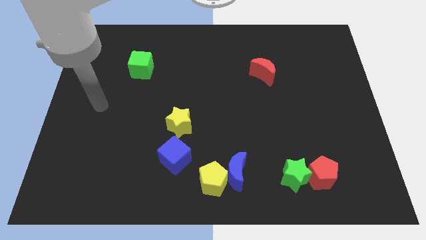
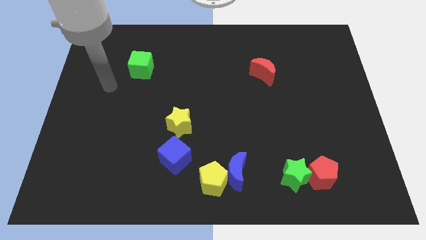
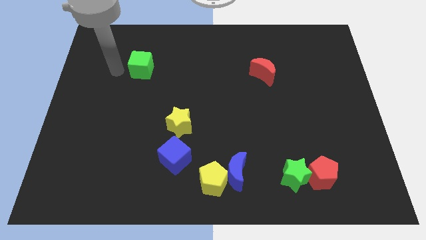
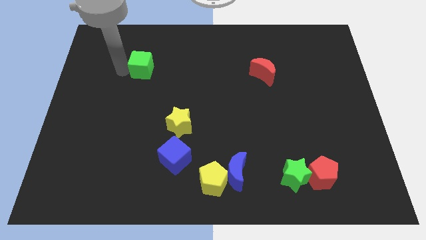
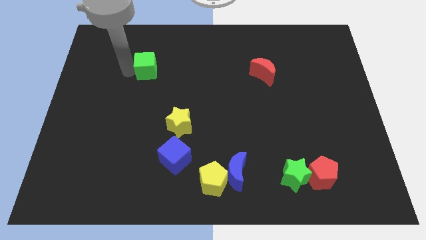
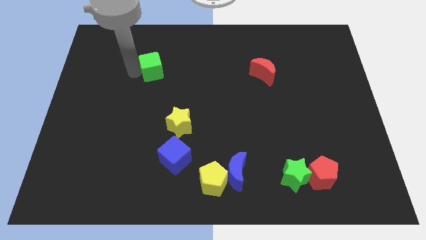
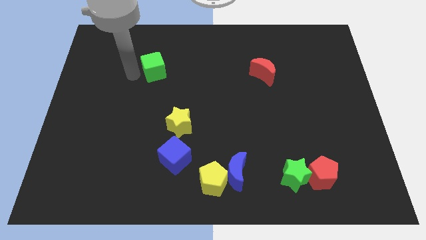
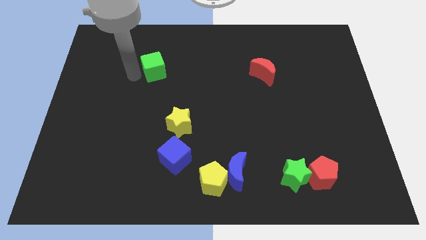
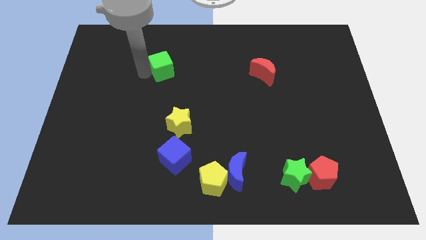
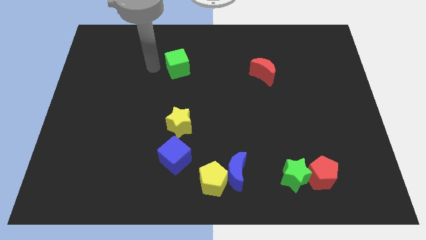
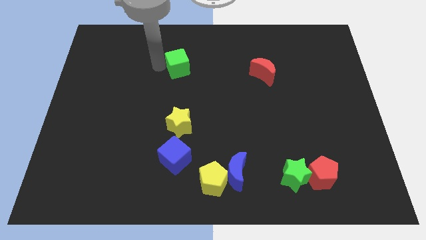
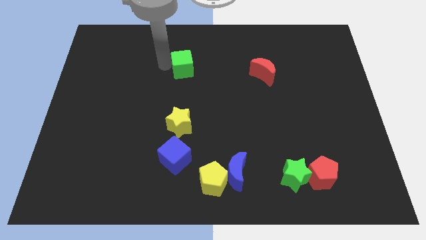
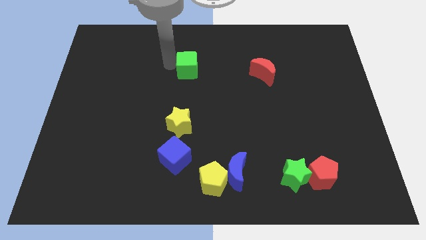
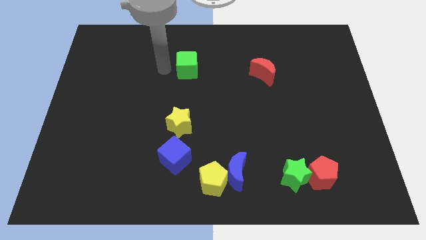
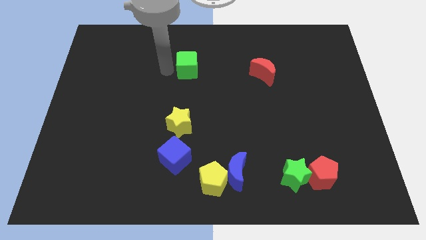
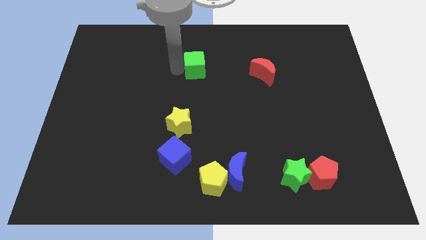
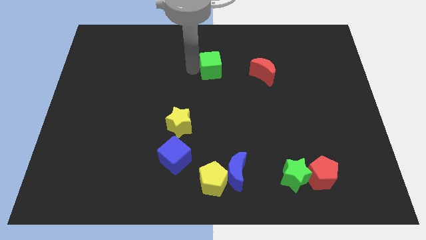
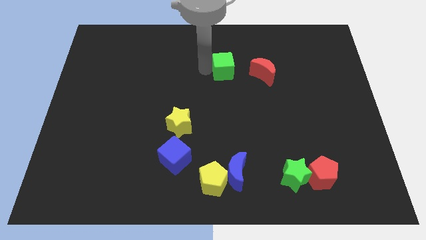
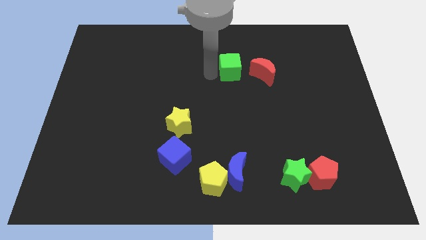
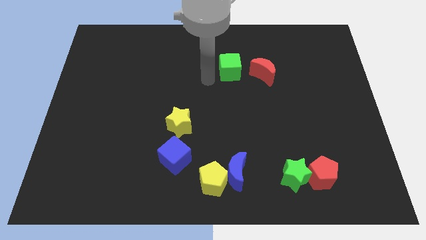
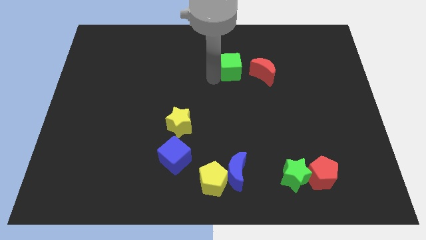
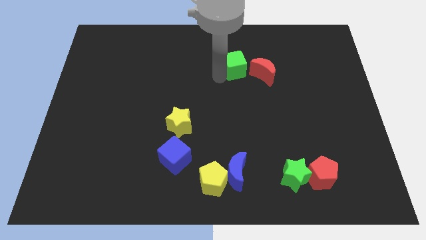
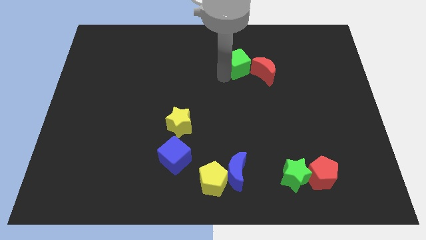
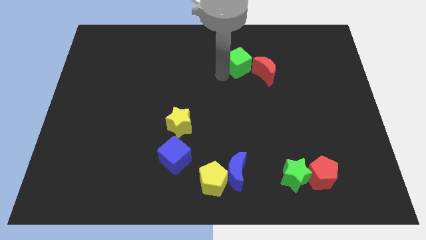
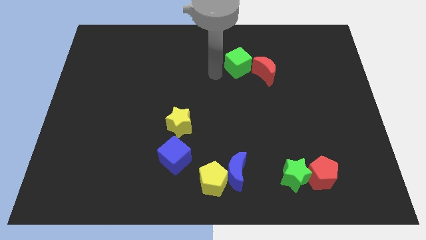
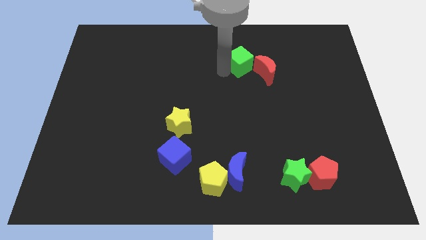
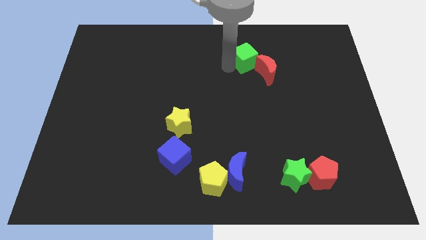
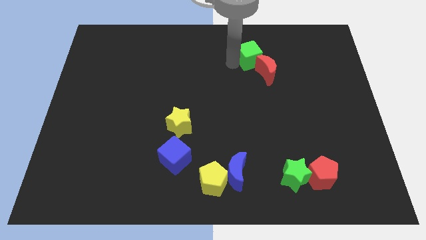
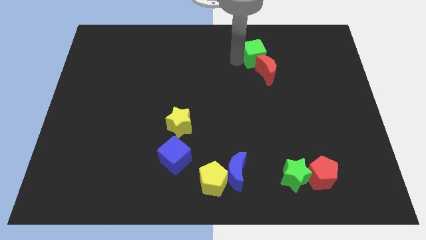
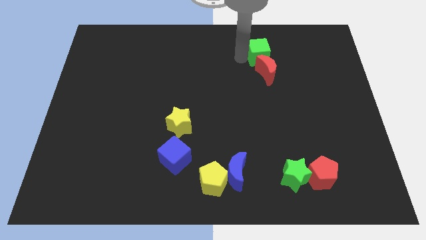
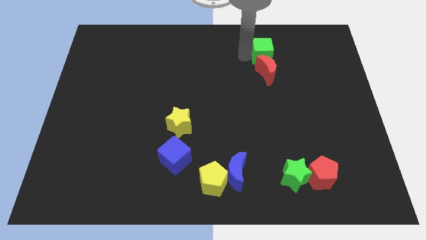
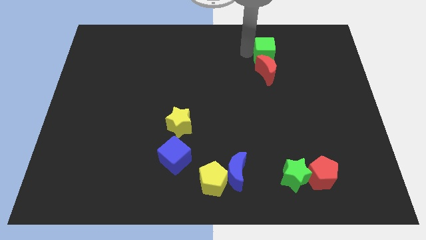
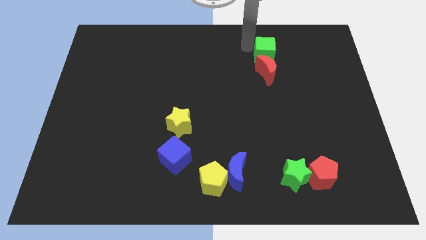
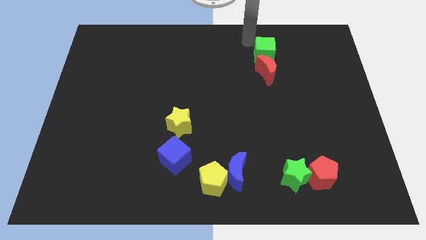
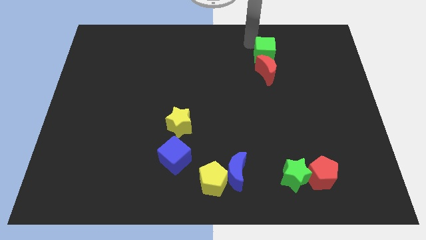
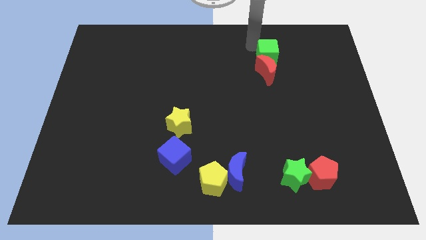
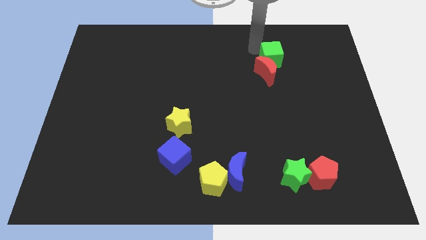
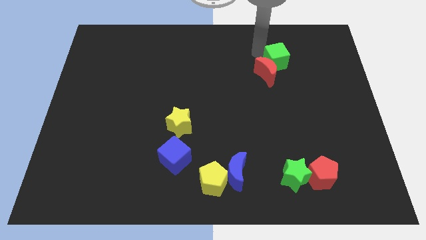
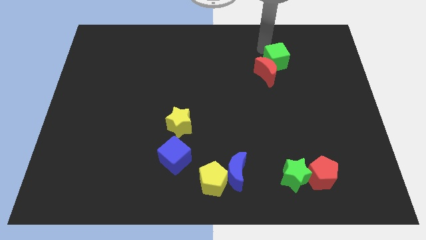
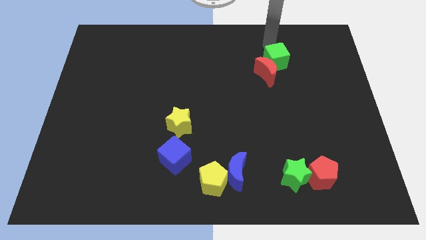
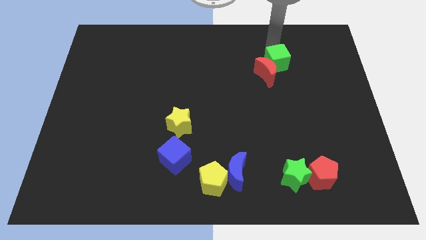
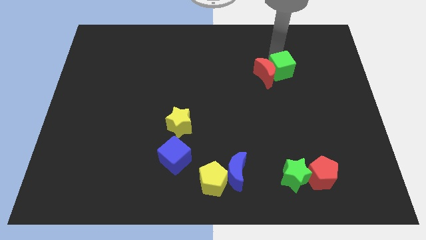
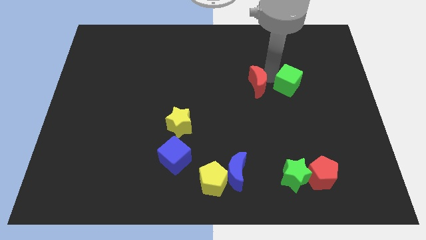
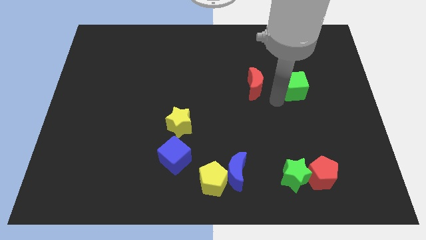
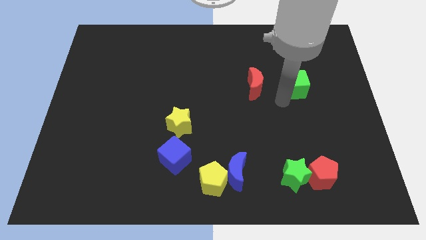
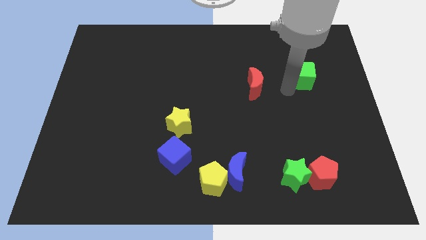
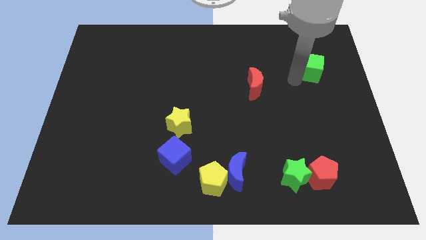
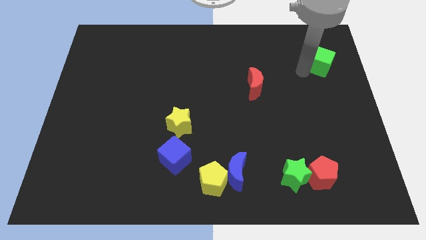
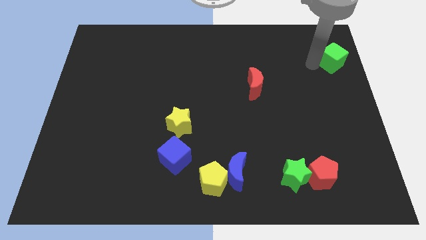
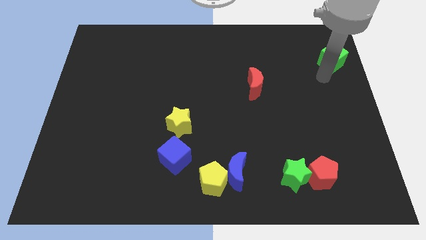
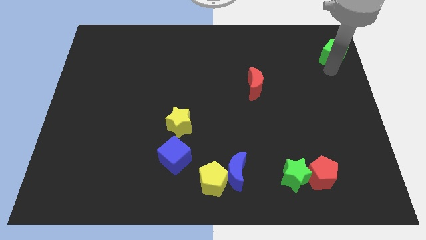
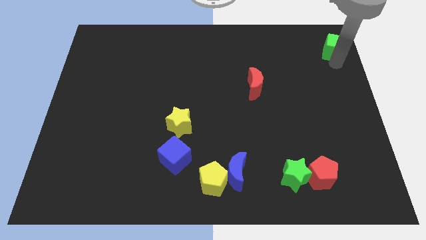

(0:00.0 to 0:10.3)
push the green cube to the top right of the board

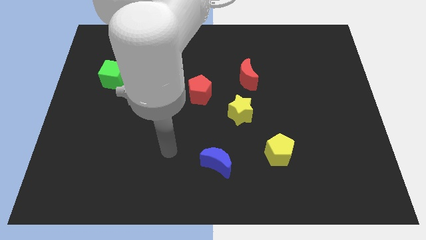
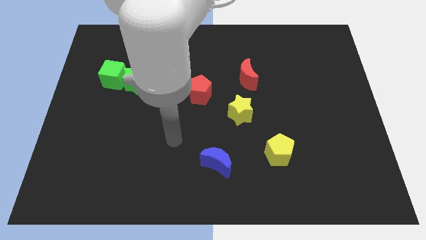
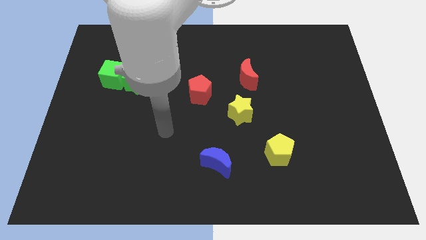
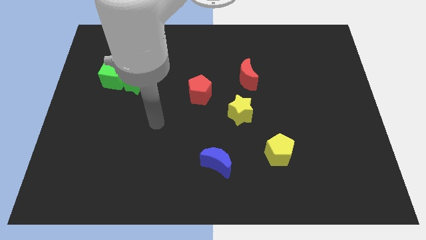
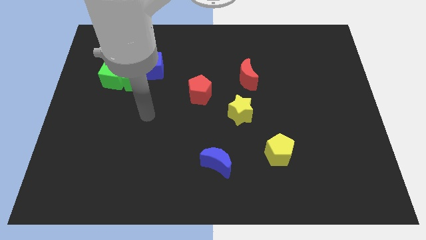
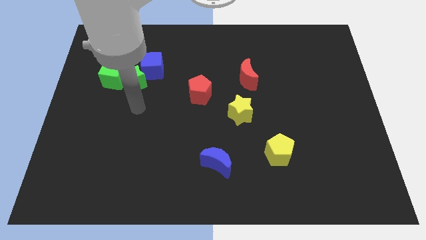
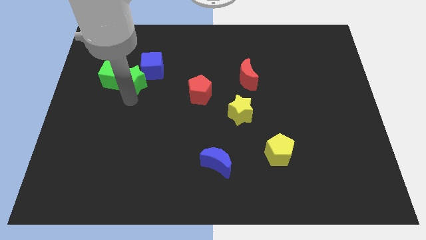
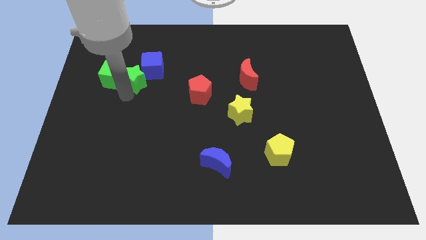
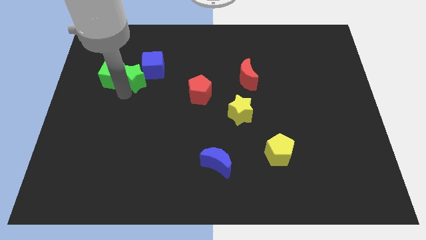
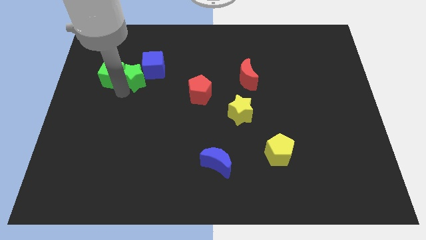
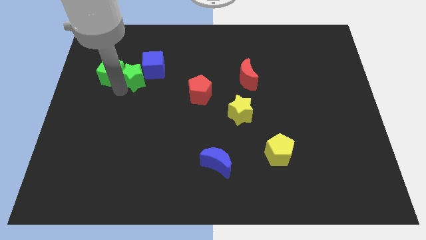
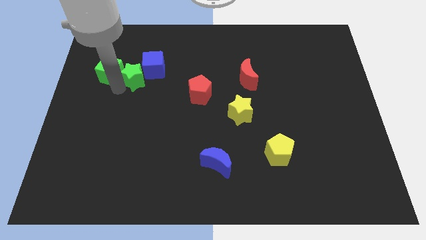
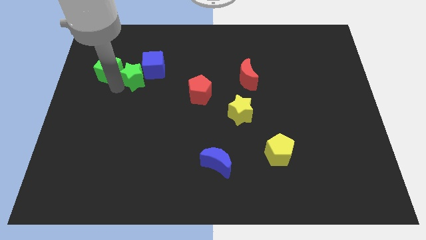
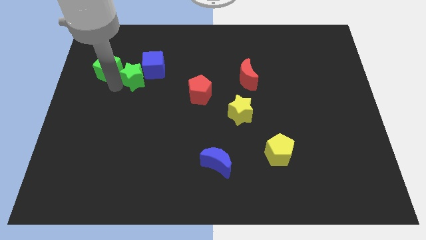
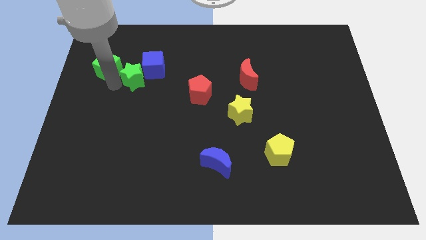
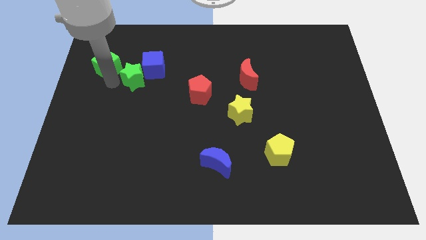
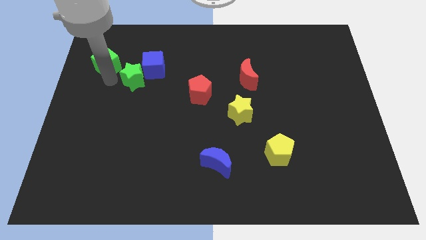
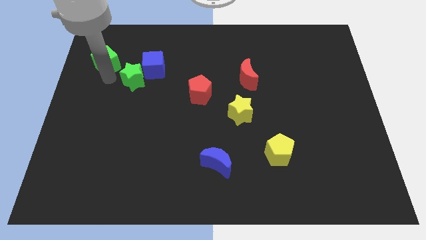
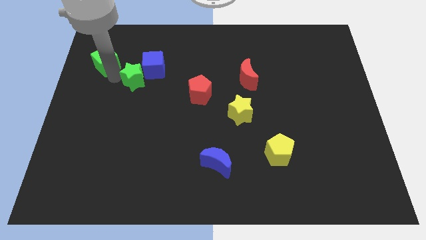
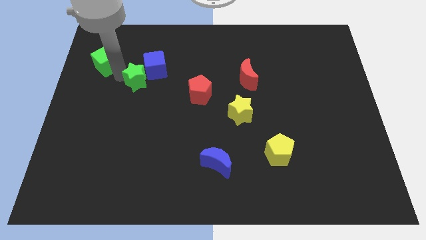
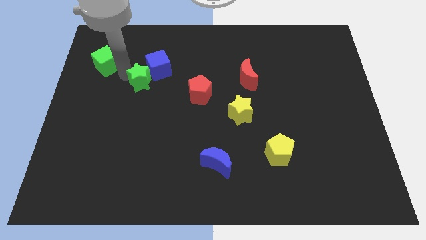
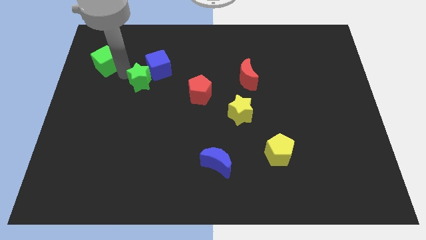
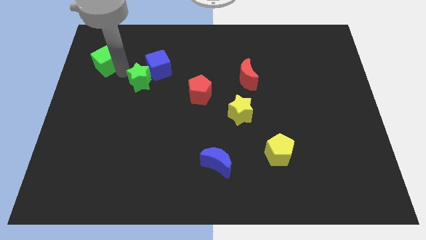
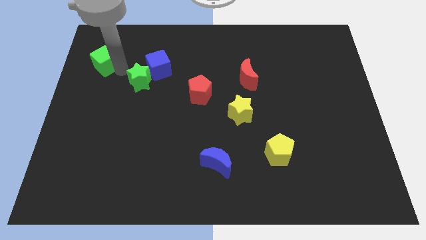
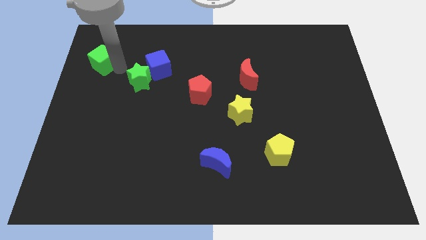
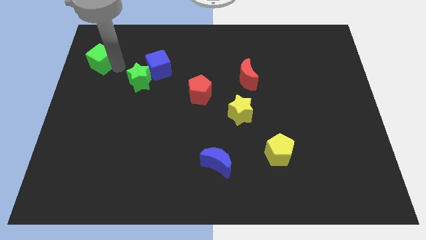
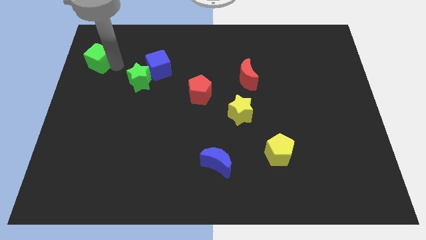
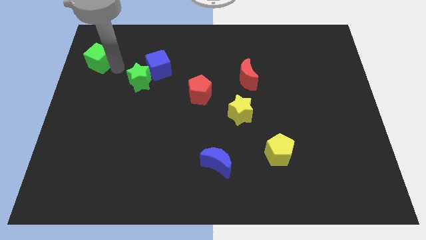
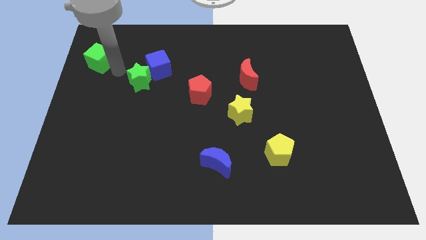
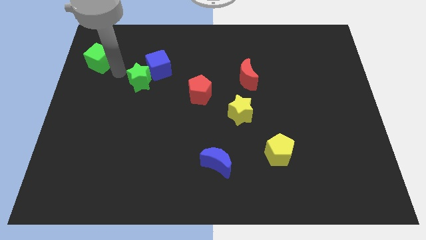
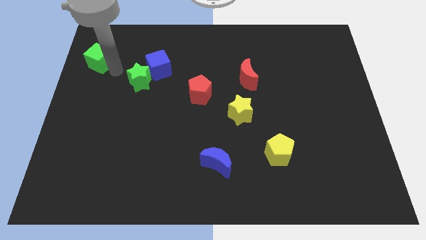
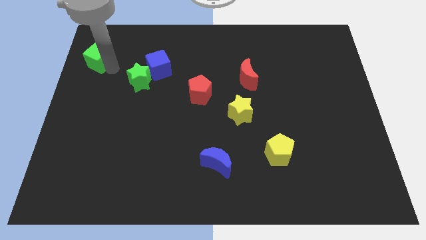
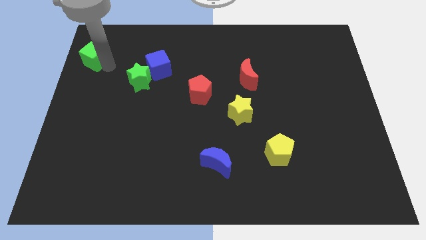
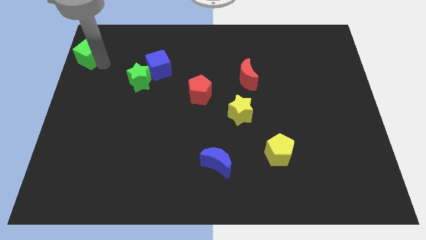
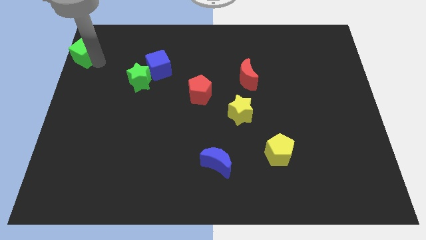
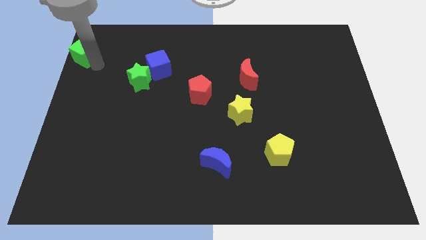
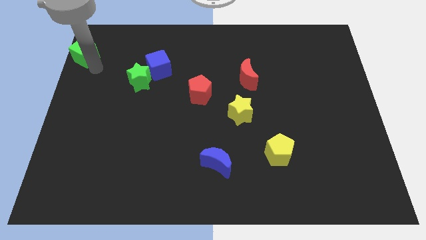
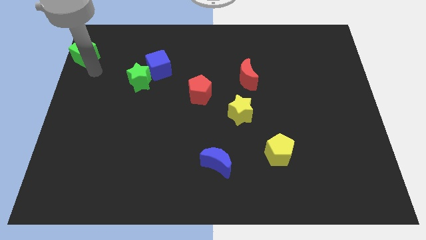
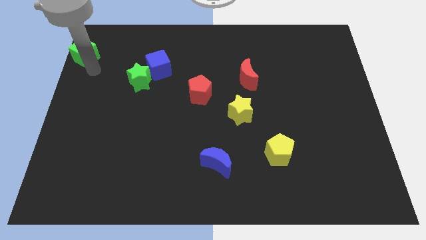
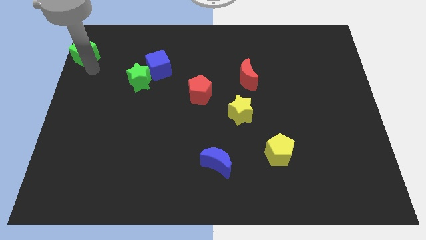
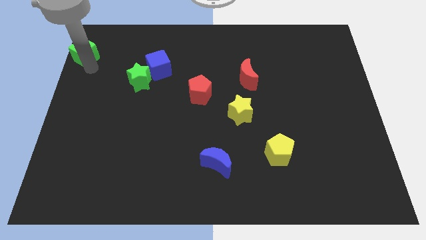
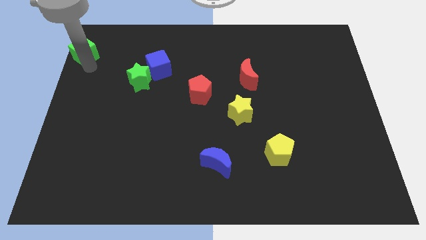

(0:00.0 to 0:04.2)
put the green cube to the upper left corner
